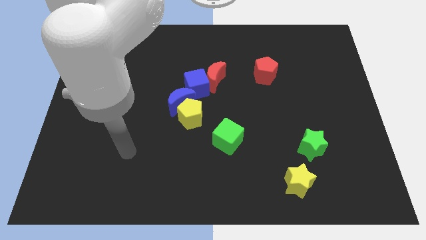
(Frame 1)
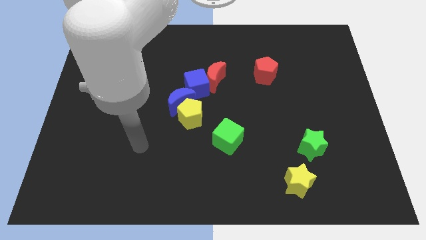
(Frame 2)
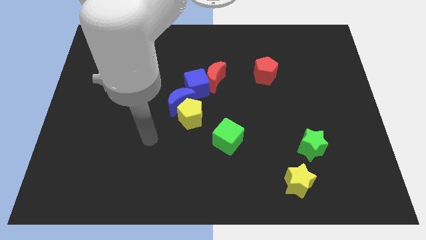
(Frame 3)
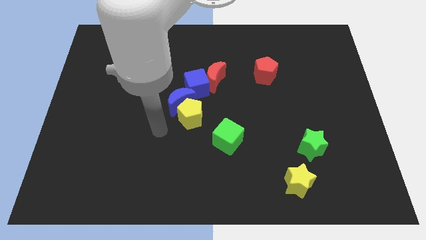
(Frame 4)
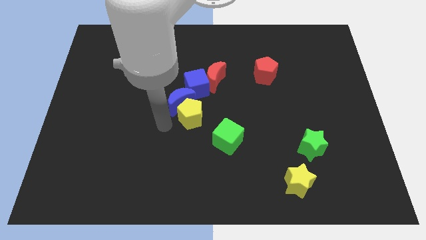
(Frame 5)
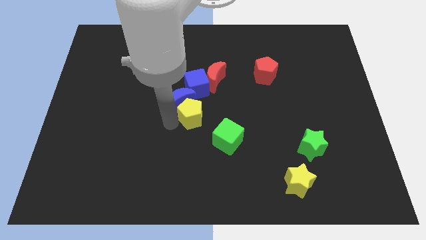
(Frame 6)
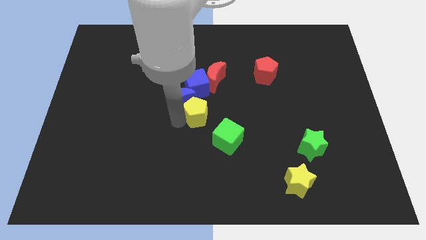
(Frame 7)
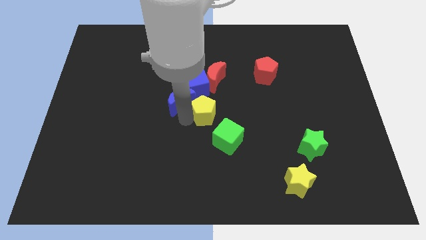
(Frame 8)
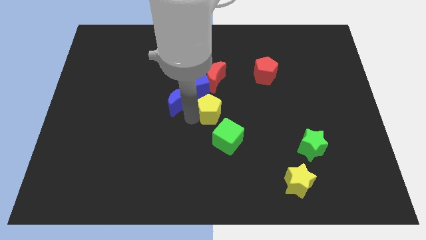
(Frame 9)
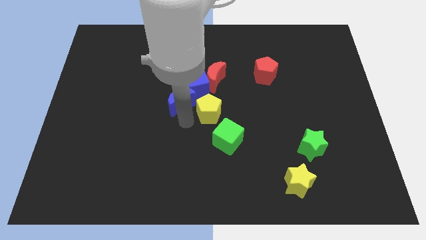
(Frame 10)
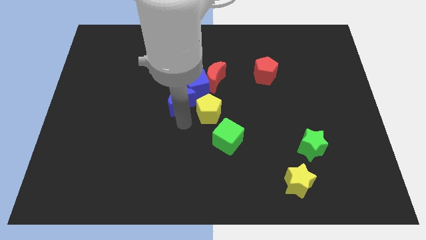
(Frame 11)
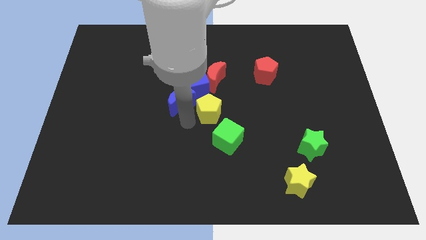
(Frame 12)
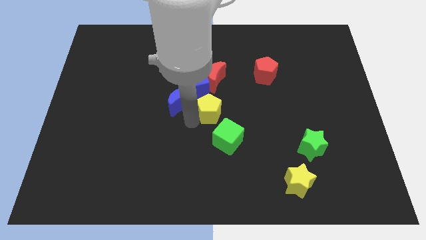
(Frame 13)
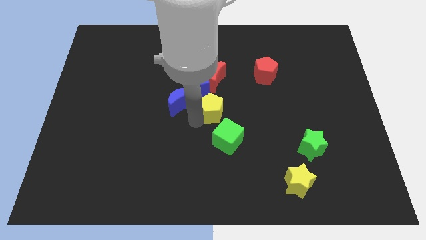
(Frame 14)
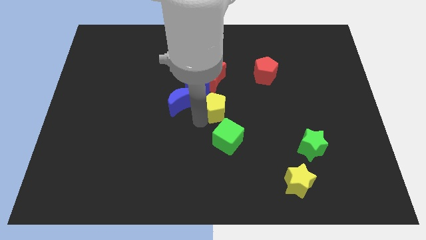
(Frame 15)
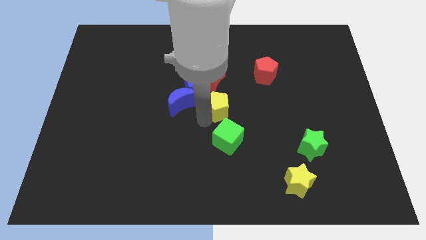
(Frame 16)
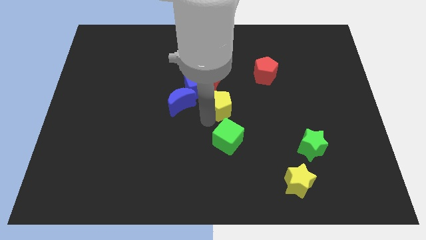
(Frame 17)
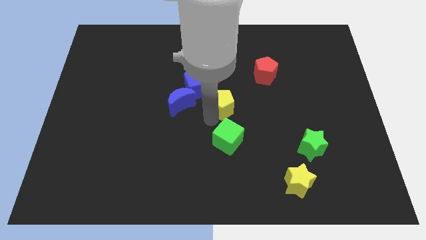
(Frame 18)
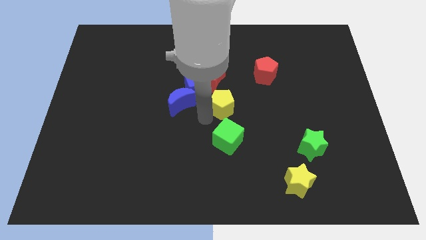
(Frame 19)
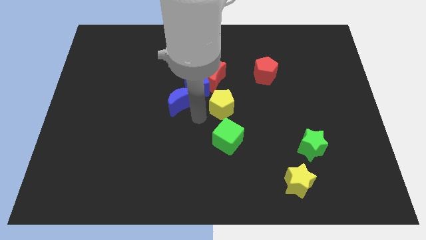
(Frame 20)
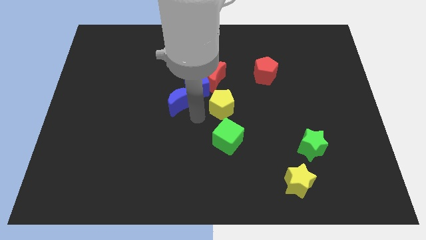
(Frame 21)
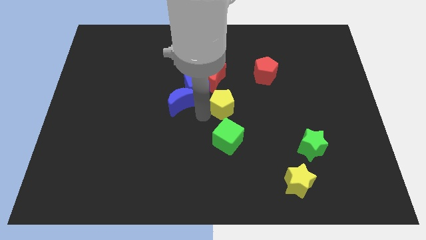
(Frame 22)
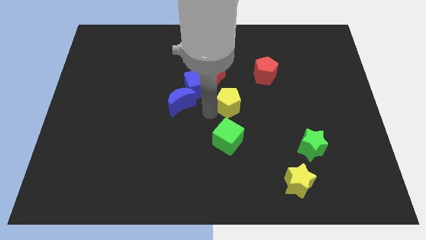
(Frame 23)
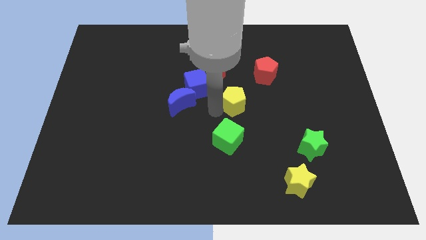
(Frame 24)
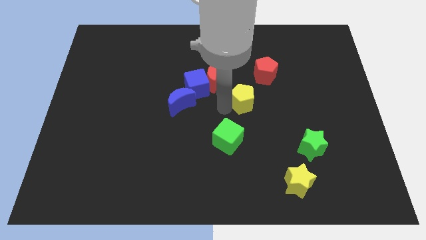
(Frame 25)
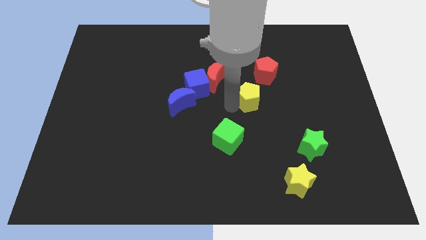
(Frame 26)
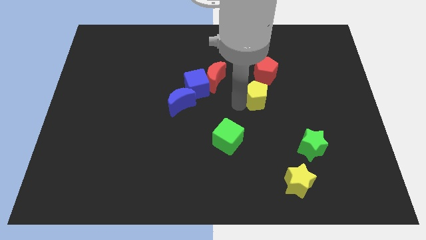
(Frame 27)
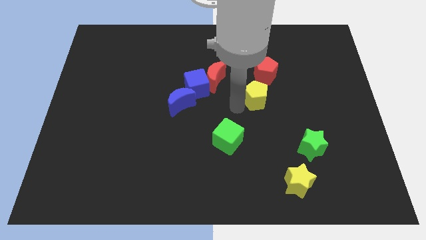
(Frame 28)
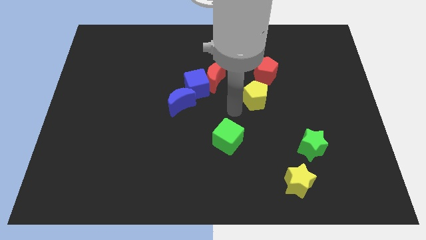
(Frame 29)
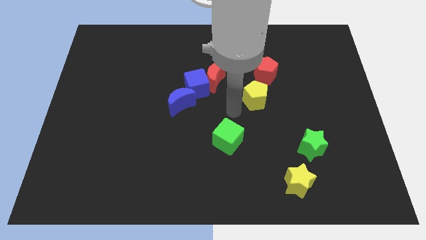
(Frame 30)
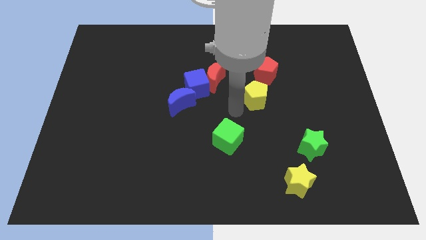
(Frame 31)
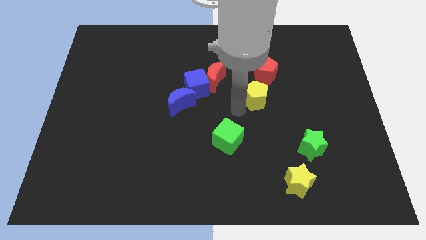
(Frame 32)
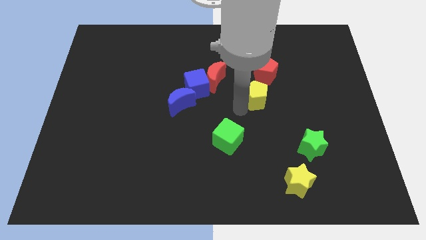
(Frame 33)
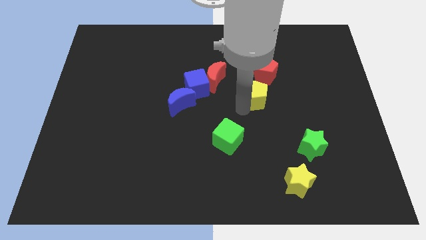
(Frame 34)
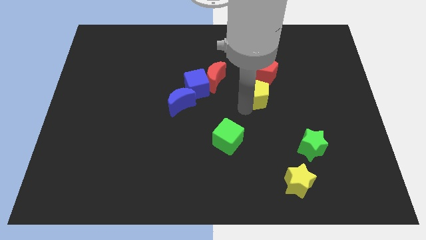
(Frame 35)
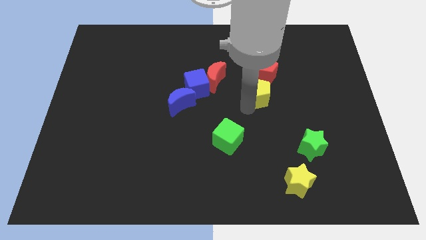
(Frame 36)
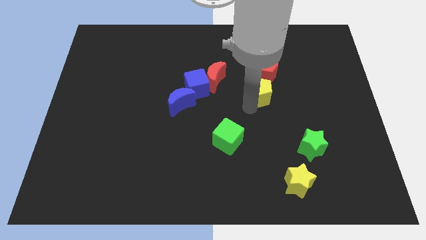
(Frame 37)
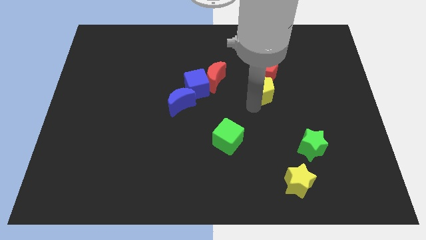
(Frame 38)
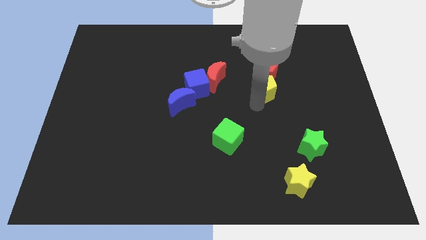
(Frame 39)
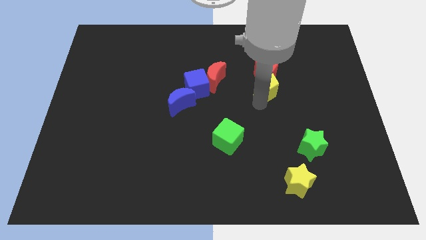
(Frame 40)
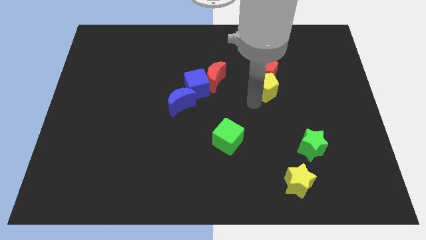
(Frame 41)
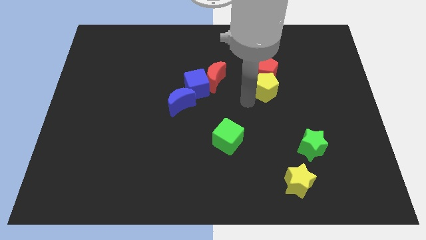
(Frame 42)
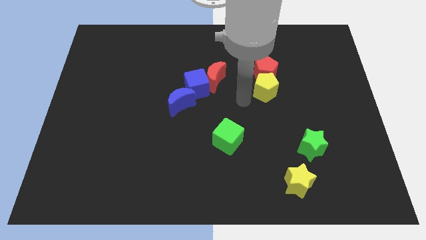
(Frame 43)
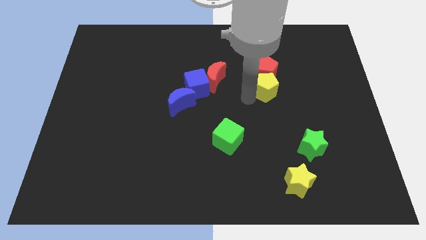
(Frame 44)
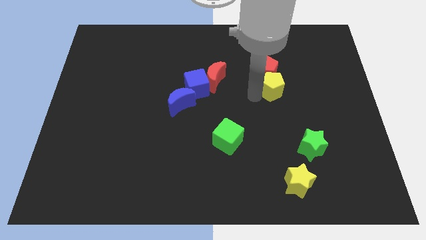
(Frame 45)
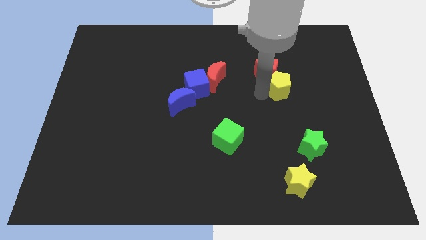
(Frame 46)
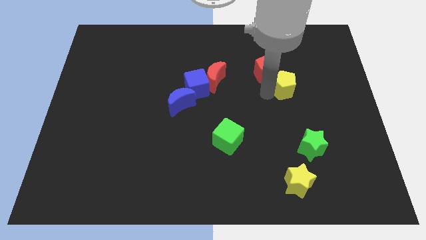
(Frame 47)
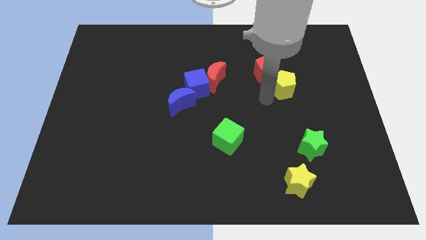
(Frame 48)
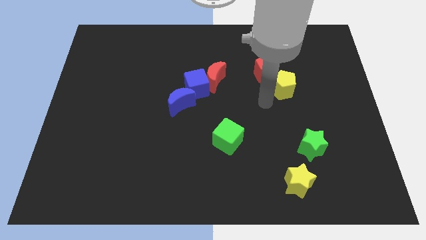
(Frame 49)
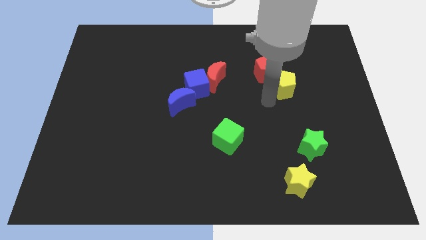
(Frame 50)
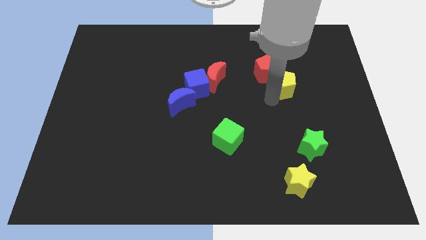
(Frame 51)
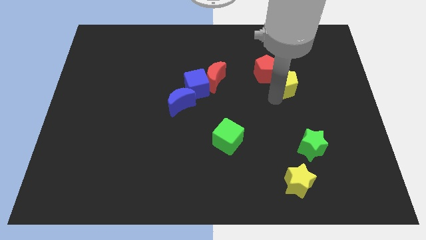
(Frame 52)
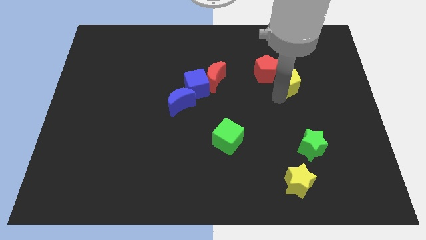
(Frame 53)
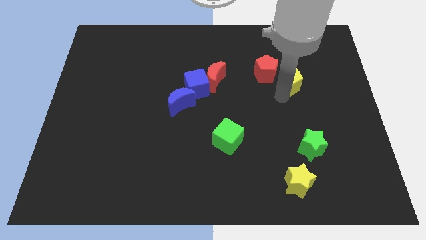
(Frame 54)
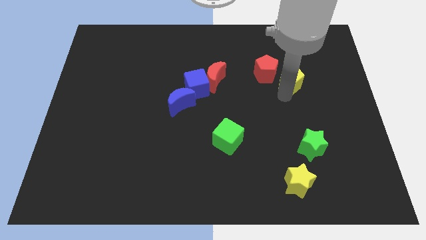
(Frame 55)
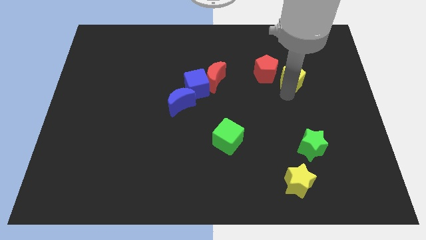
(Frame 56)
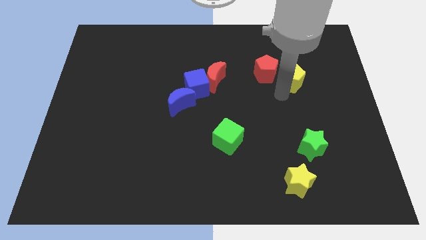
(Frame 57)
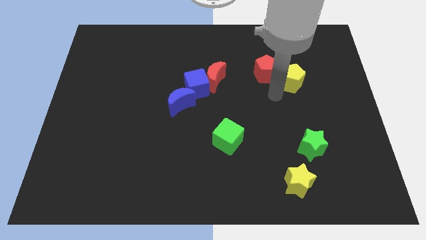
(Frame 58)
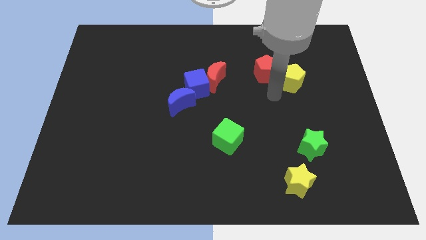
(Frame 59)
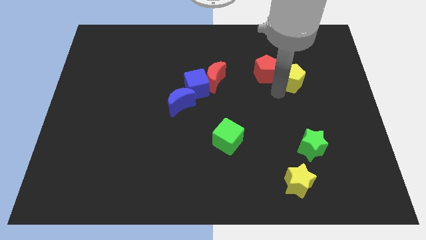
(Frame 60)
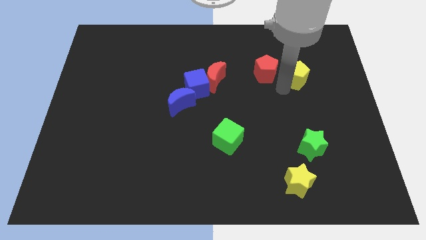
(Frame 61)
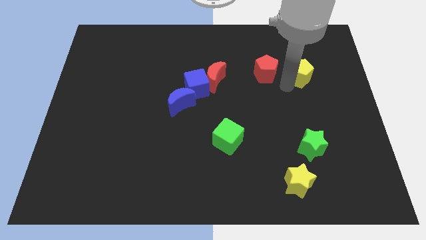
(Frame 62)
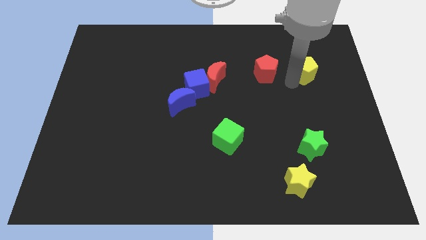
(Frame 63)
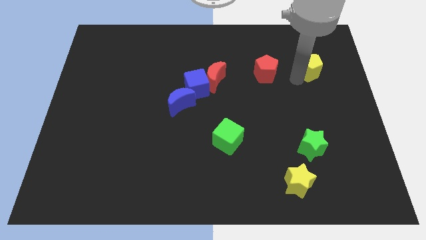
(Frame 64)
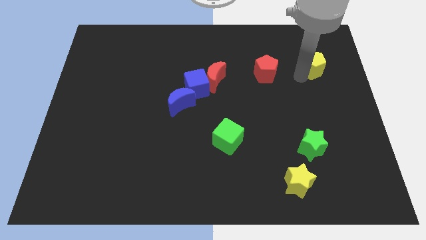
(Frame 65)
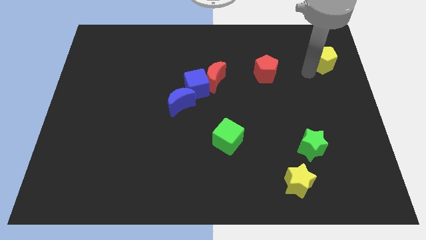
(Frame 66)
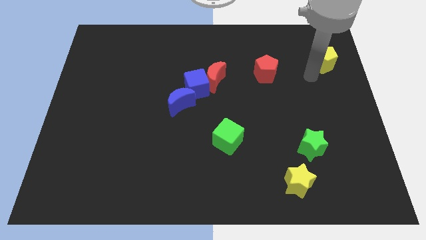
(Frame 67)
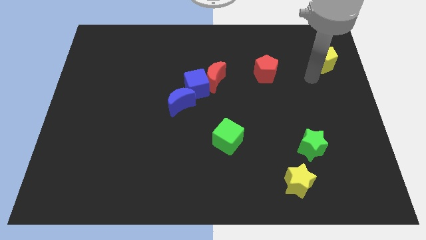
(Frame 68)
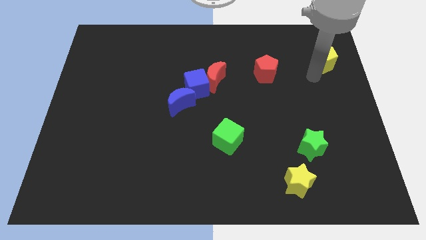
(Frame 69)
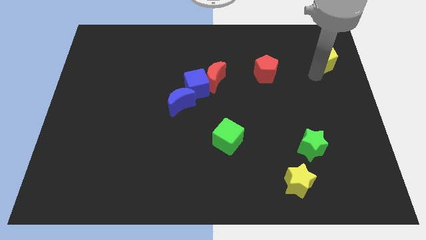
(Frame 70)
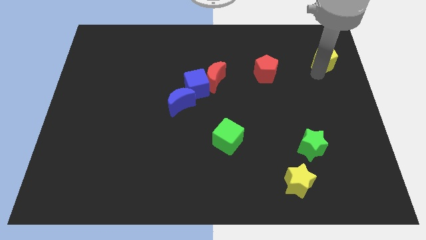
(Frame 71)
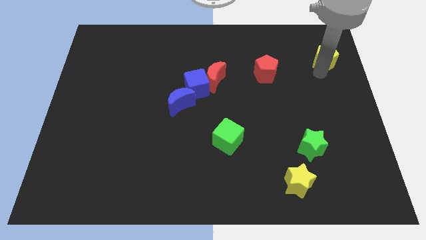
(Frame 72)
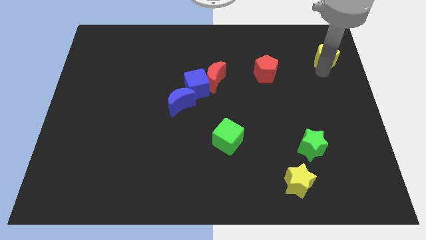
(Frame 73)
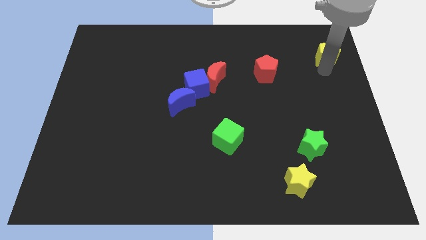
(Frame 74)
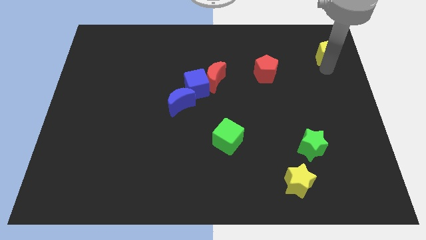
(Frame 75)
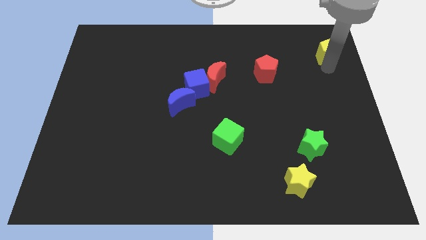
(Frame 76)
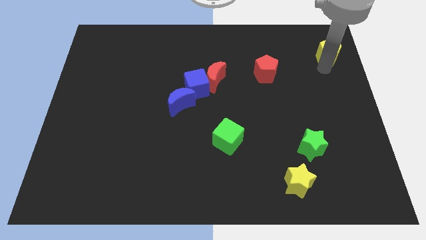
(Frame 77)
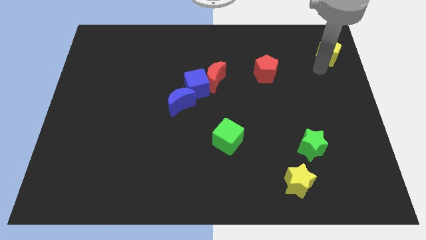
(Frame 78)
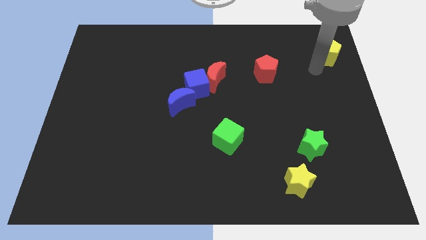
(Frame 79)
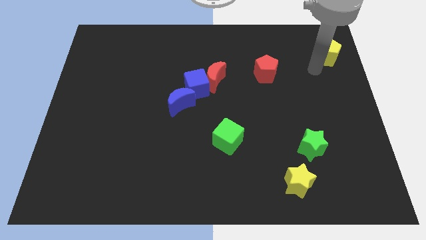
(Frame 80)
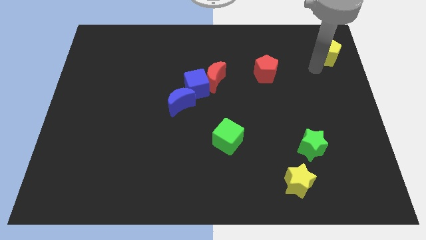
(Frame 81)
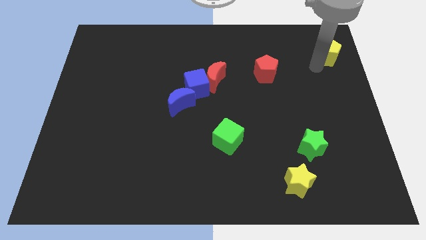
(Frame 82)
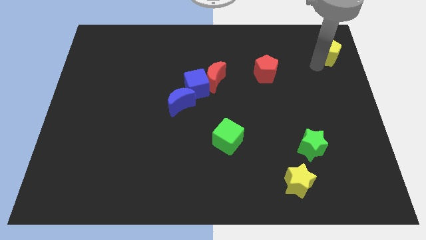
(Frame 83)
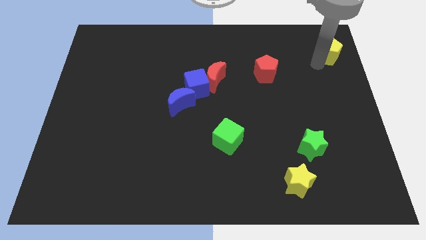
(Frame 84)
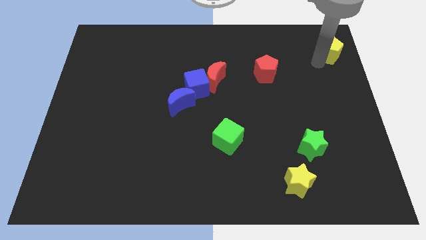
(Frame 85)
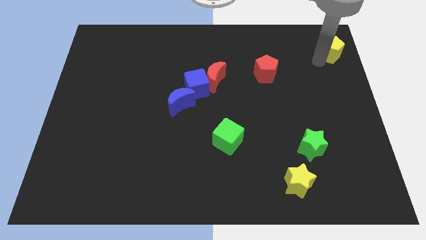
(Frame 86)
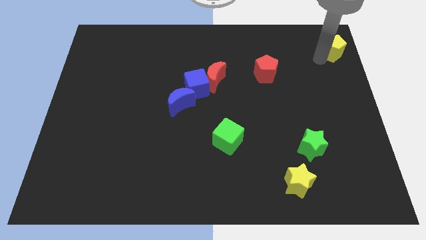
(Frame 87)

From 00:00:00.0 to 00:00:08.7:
slide the yellow pentagon to the top right
